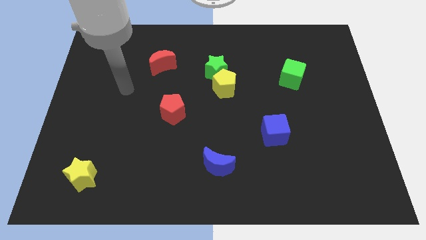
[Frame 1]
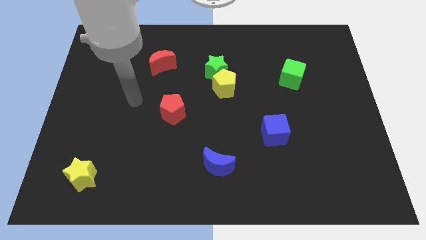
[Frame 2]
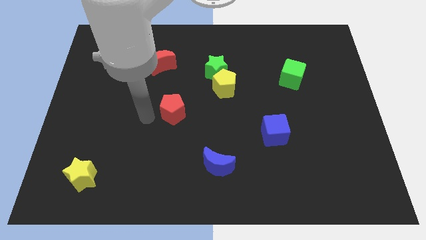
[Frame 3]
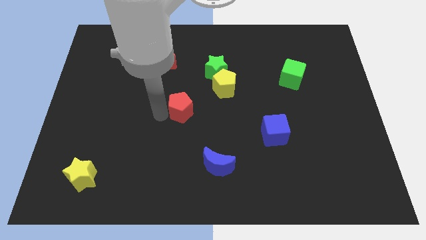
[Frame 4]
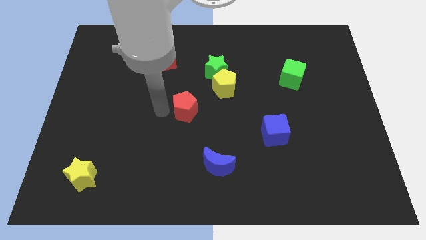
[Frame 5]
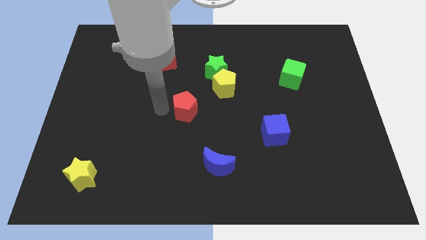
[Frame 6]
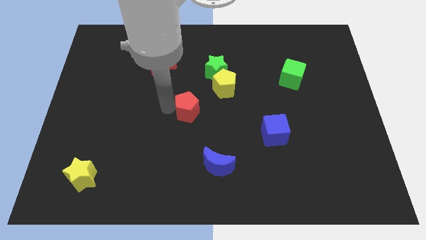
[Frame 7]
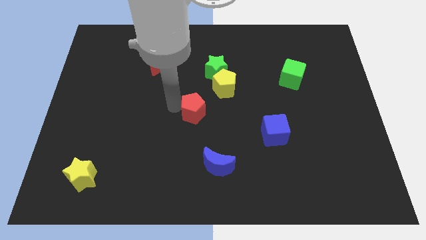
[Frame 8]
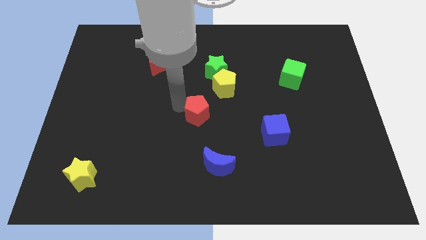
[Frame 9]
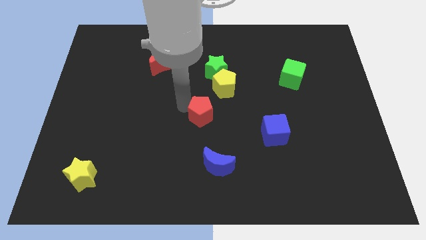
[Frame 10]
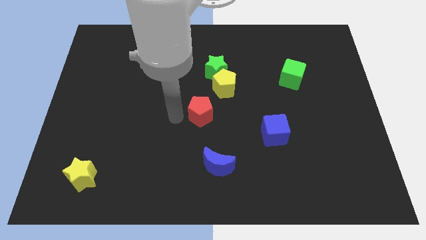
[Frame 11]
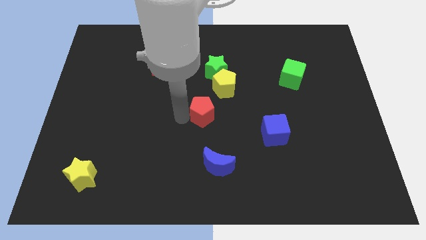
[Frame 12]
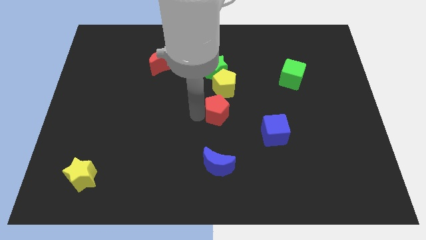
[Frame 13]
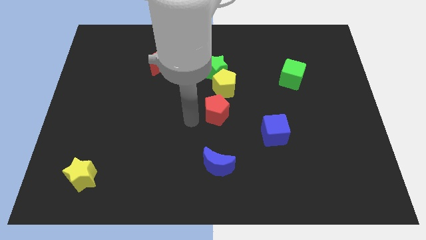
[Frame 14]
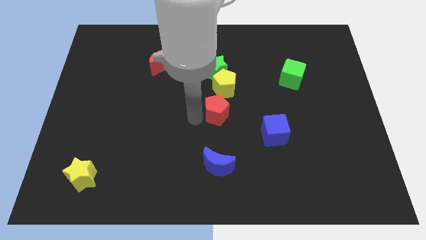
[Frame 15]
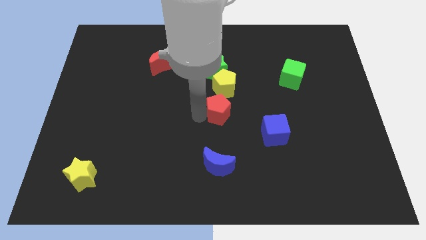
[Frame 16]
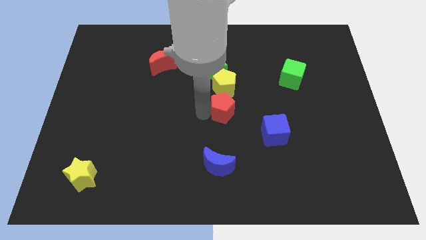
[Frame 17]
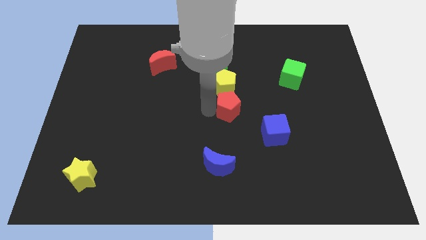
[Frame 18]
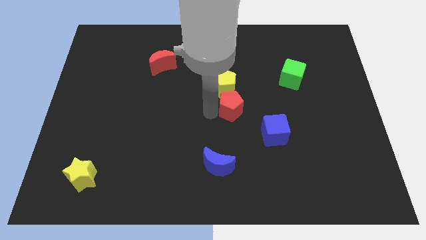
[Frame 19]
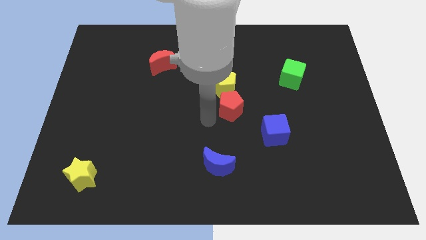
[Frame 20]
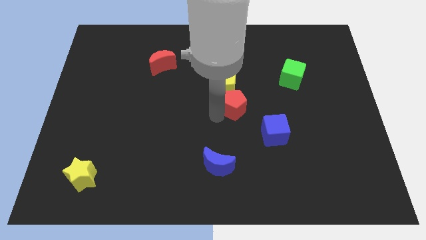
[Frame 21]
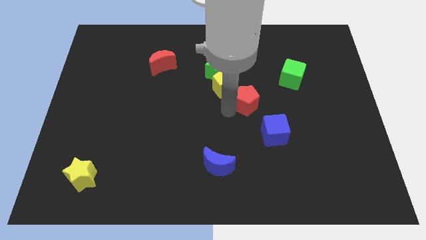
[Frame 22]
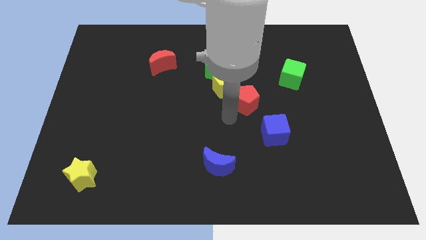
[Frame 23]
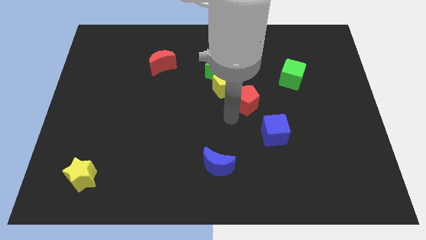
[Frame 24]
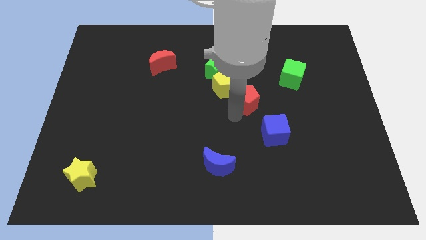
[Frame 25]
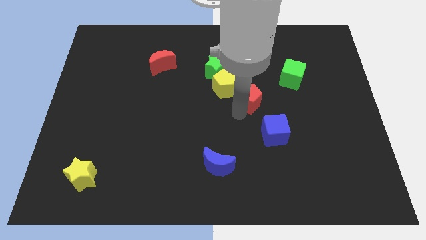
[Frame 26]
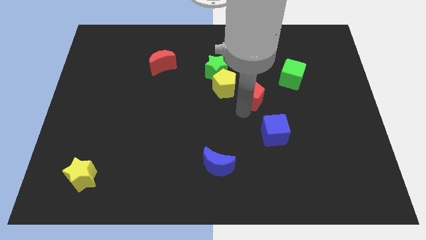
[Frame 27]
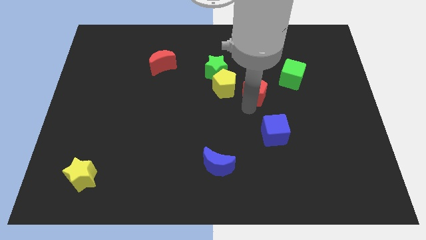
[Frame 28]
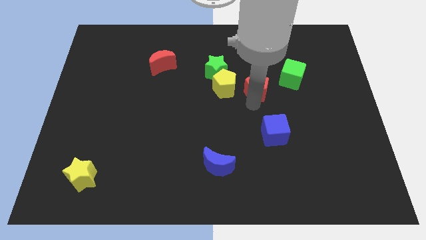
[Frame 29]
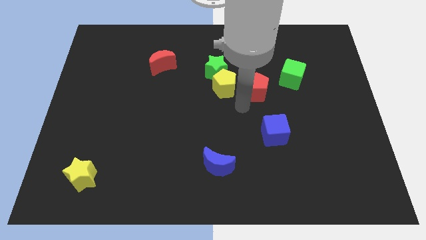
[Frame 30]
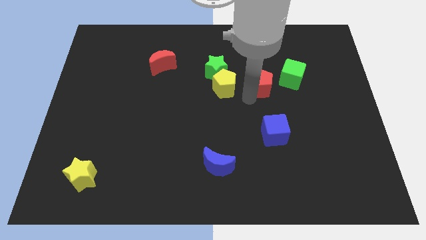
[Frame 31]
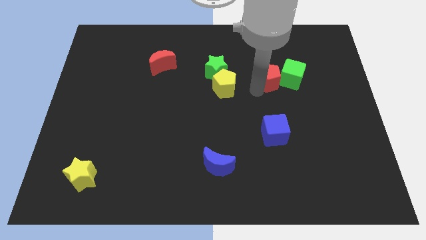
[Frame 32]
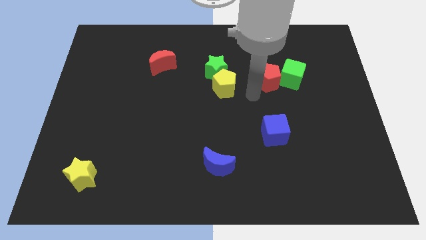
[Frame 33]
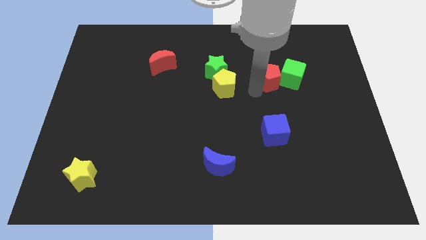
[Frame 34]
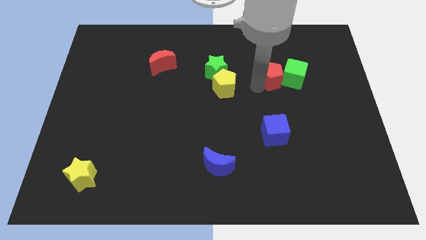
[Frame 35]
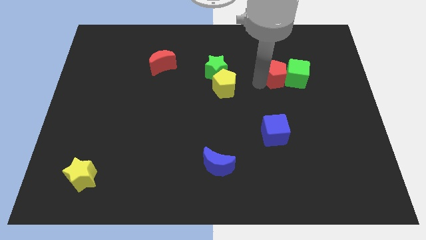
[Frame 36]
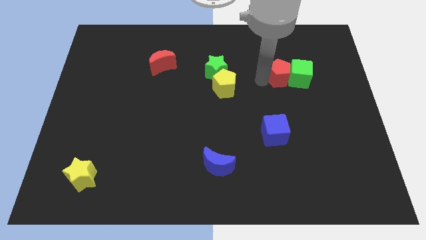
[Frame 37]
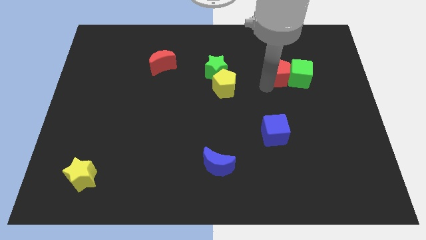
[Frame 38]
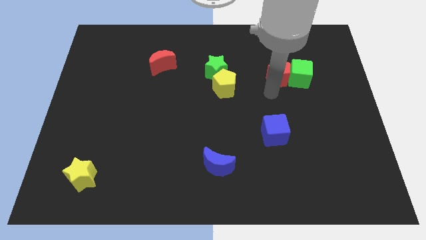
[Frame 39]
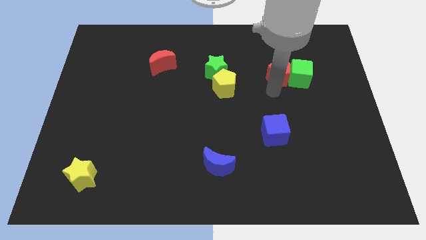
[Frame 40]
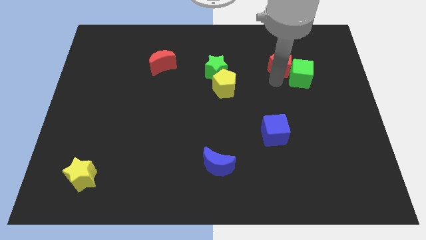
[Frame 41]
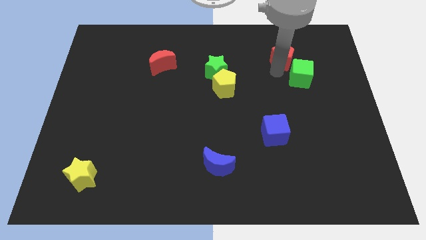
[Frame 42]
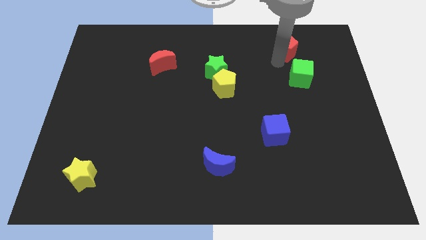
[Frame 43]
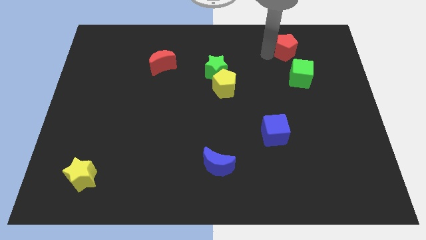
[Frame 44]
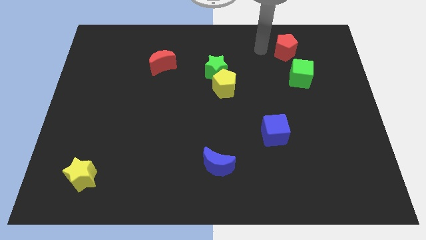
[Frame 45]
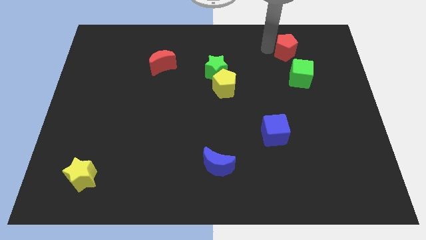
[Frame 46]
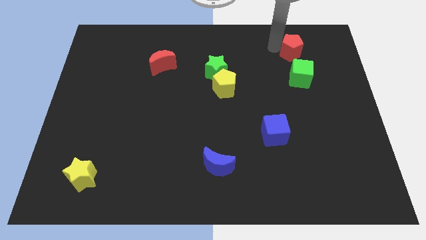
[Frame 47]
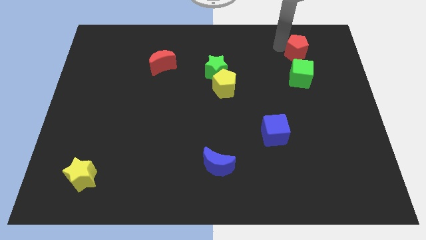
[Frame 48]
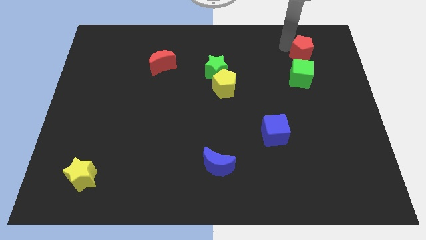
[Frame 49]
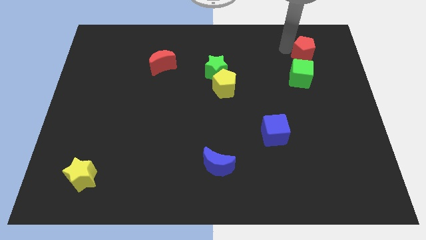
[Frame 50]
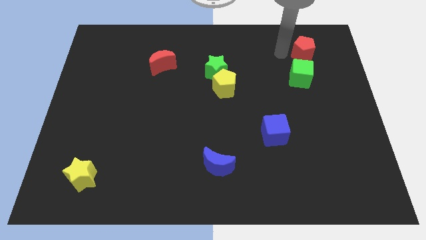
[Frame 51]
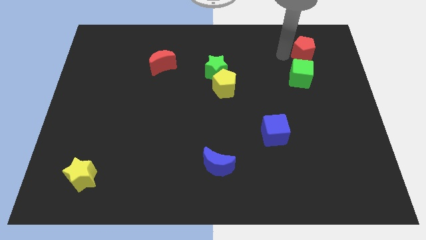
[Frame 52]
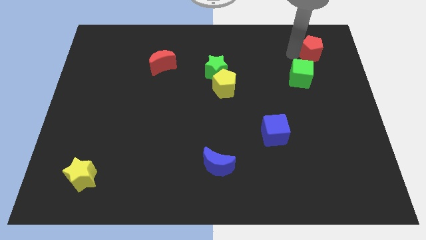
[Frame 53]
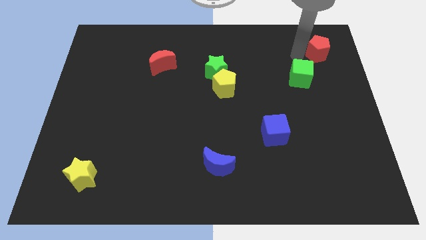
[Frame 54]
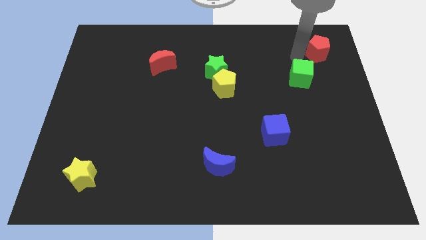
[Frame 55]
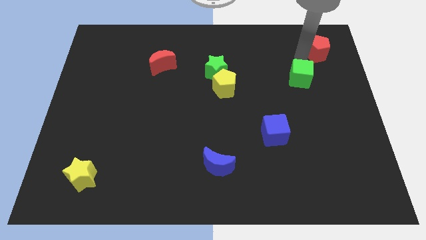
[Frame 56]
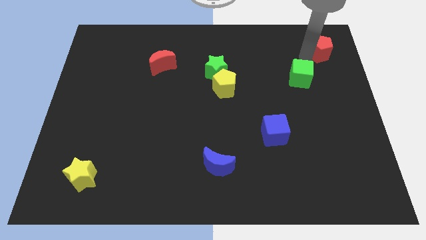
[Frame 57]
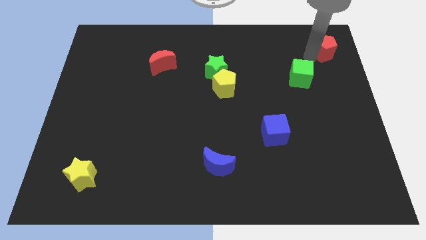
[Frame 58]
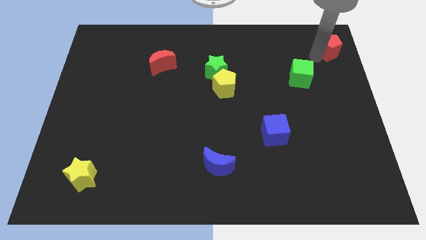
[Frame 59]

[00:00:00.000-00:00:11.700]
push the red pentagon to the top right
